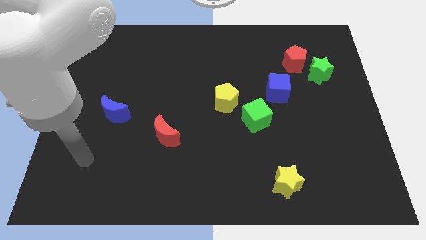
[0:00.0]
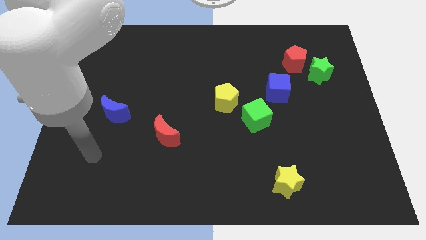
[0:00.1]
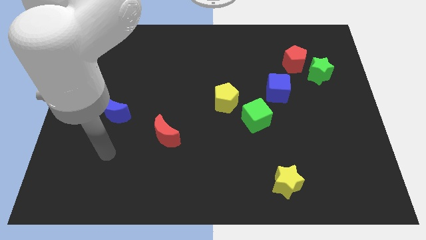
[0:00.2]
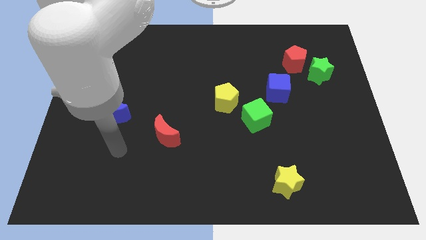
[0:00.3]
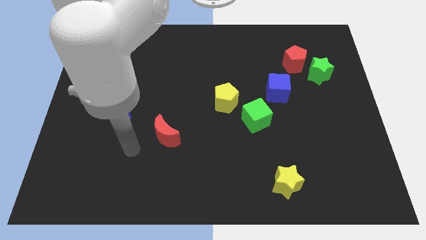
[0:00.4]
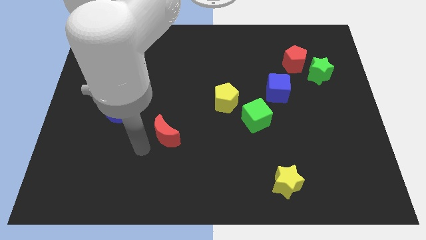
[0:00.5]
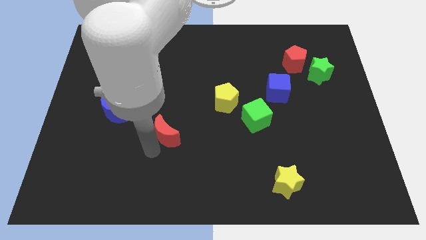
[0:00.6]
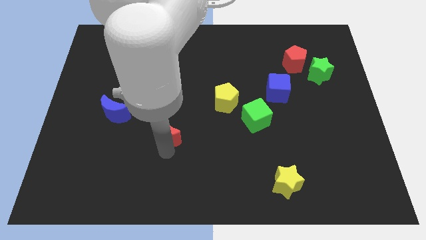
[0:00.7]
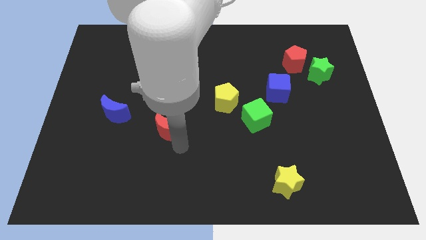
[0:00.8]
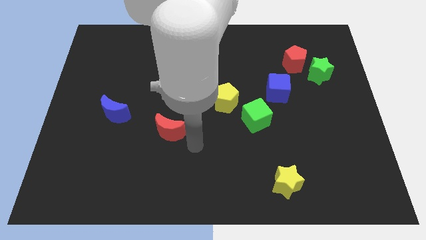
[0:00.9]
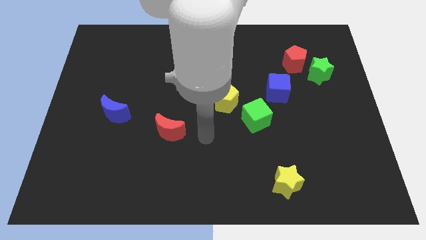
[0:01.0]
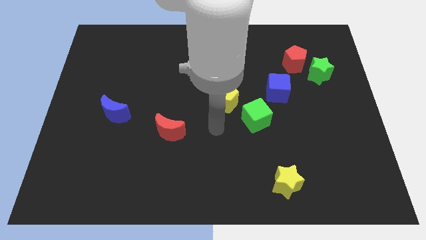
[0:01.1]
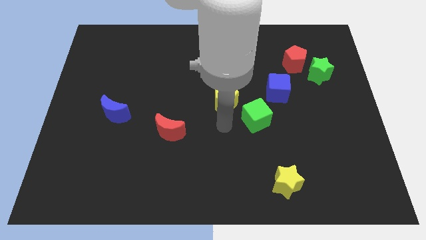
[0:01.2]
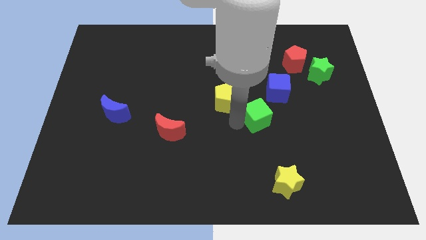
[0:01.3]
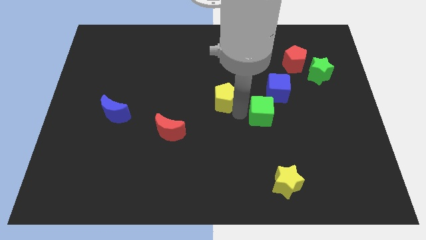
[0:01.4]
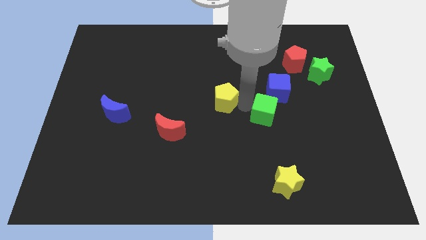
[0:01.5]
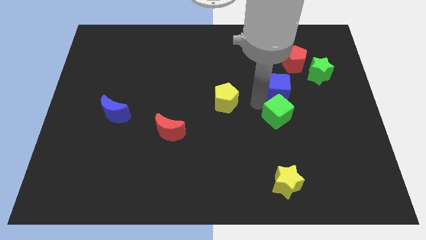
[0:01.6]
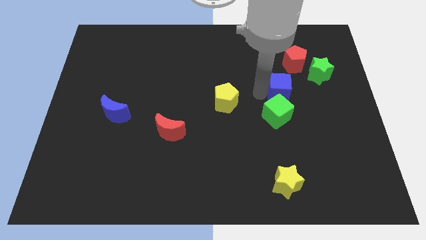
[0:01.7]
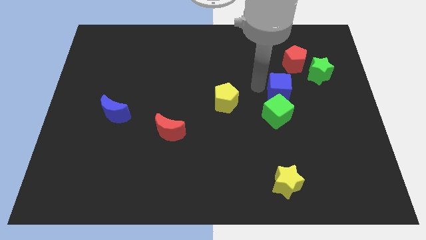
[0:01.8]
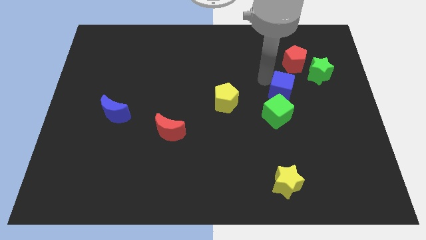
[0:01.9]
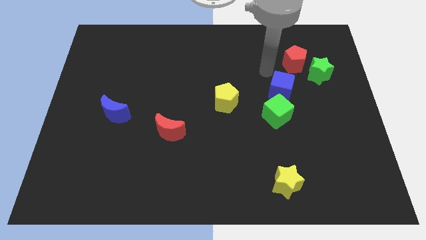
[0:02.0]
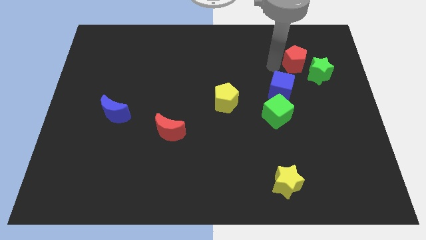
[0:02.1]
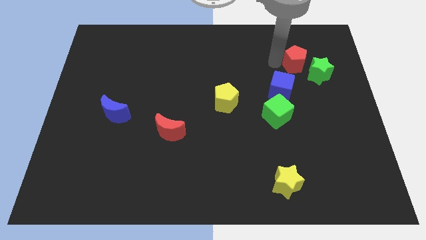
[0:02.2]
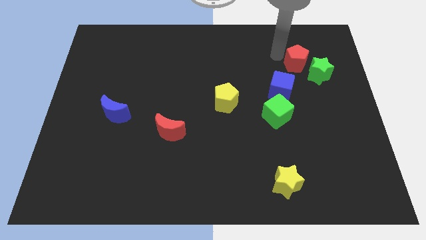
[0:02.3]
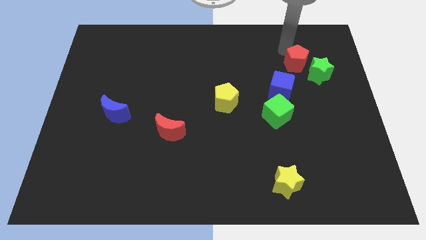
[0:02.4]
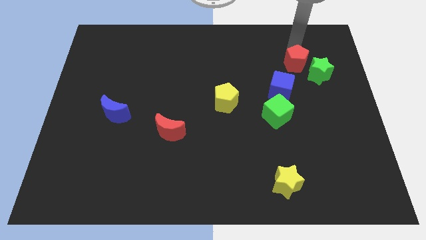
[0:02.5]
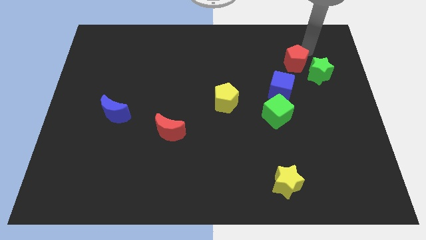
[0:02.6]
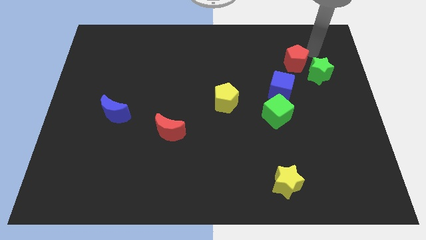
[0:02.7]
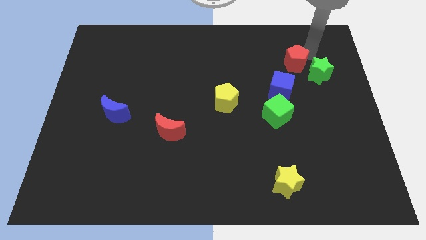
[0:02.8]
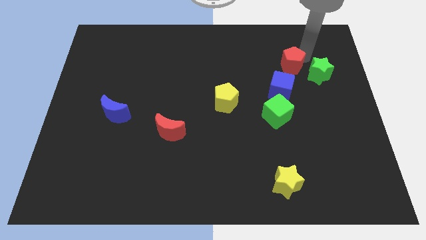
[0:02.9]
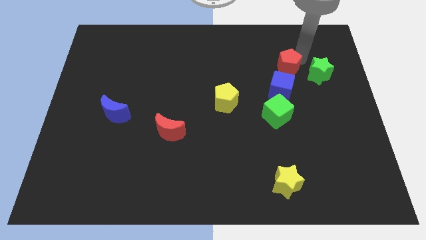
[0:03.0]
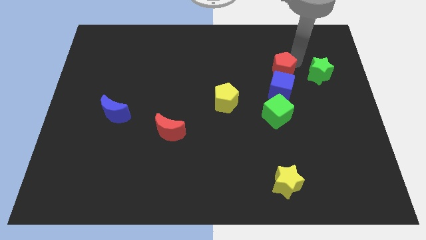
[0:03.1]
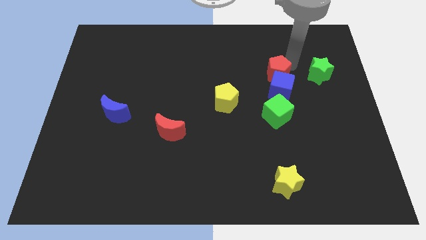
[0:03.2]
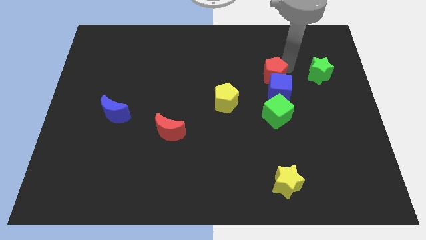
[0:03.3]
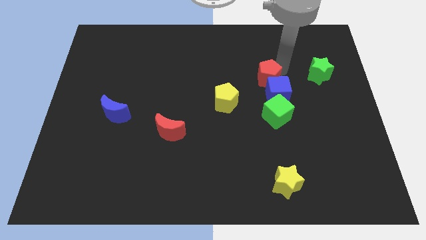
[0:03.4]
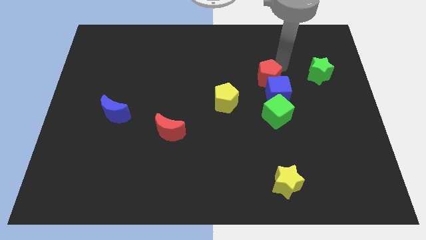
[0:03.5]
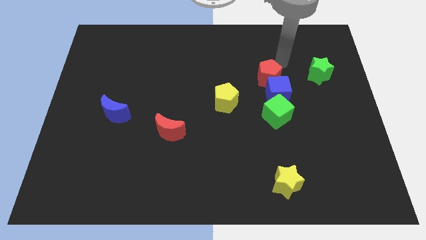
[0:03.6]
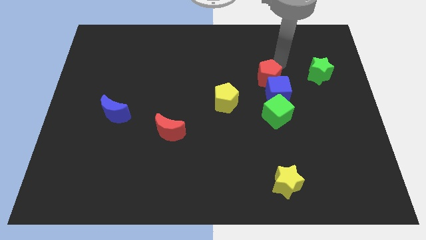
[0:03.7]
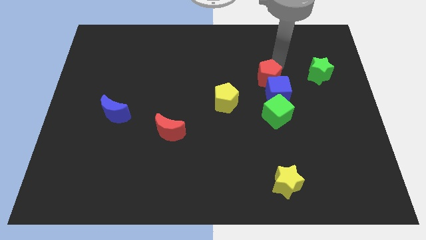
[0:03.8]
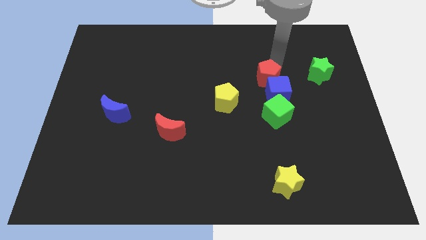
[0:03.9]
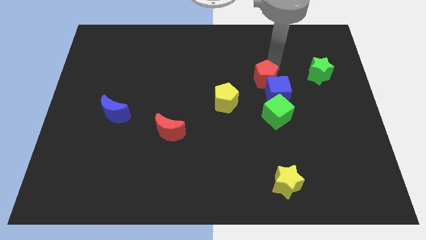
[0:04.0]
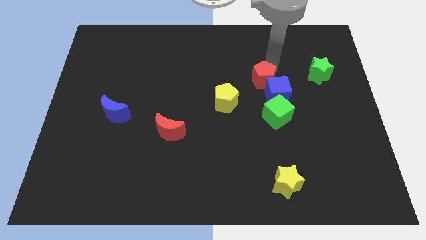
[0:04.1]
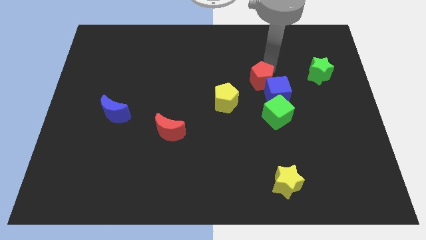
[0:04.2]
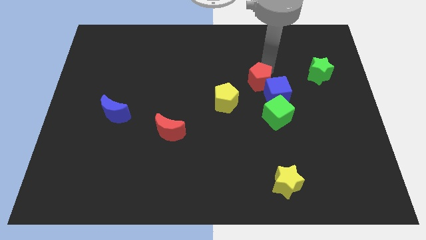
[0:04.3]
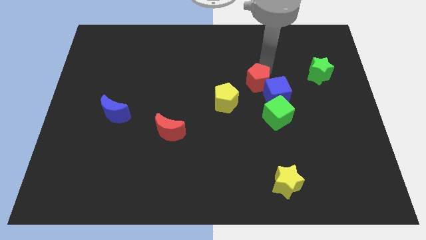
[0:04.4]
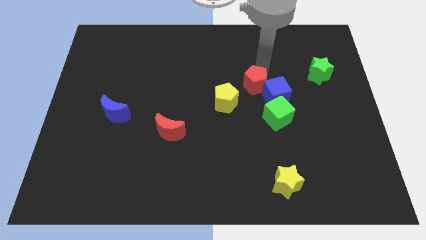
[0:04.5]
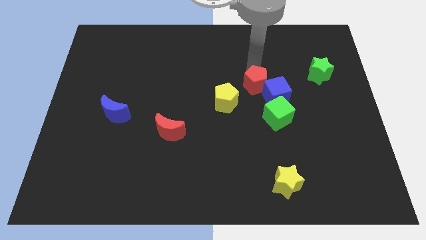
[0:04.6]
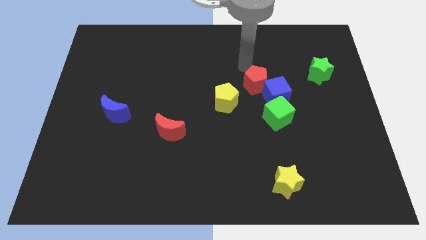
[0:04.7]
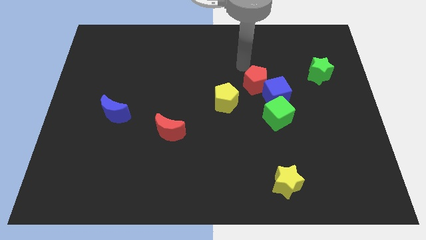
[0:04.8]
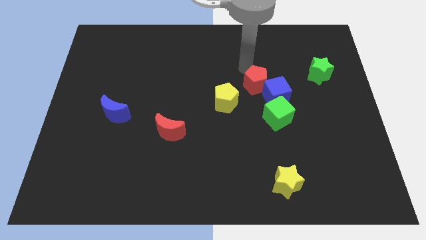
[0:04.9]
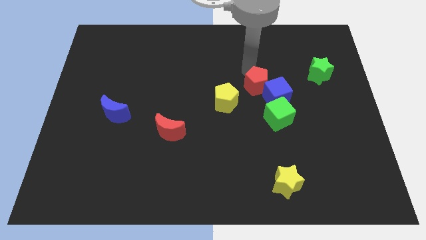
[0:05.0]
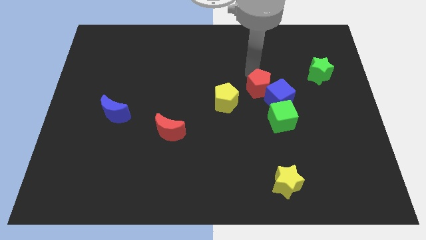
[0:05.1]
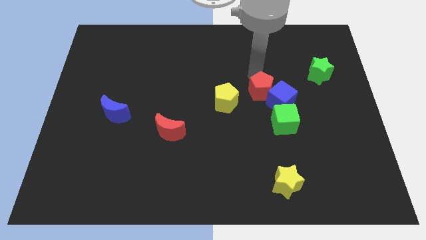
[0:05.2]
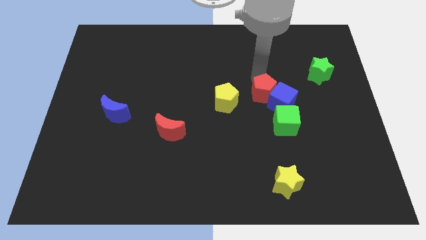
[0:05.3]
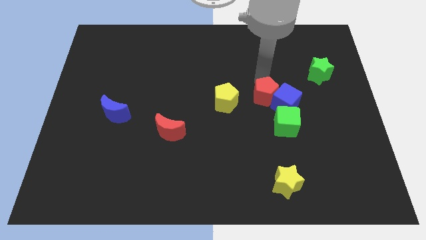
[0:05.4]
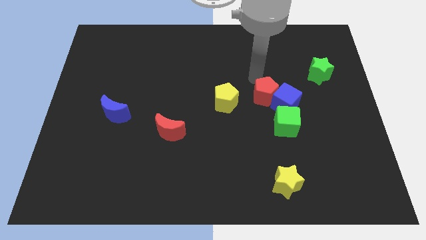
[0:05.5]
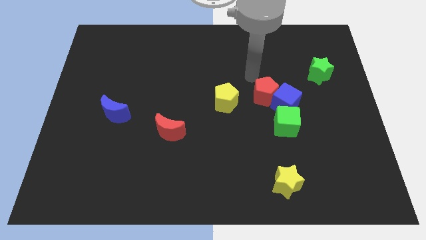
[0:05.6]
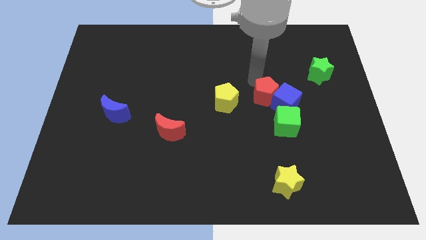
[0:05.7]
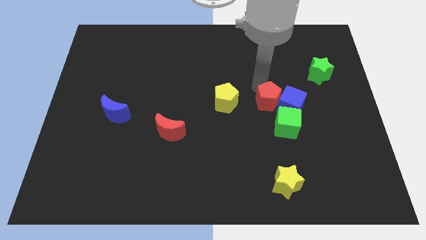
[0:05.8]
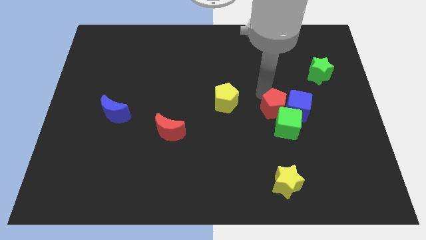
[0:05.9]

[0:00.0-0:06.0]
push the red pentagon next to the green cube

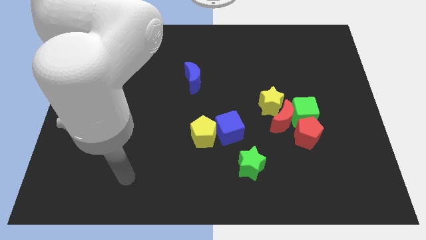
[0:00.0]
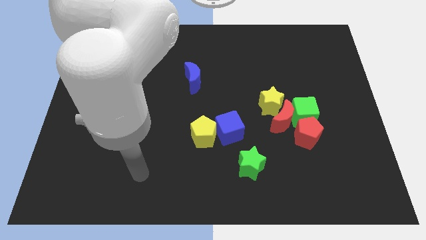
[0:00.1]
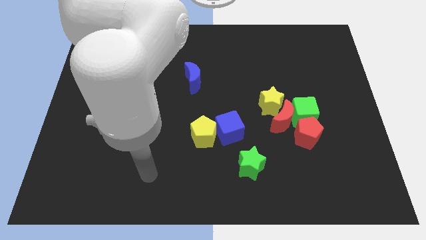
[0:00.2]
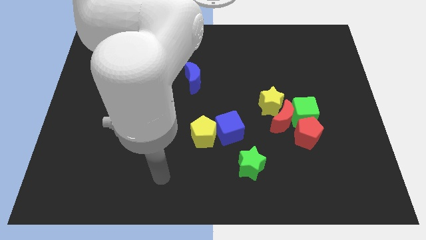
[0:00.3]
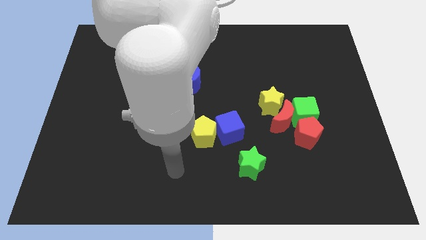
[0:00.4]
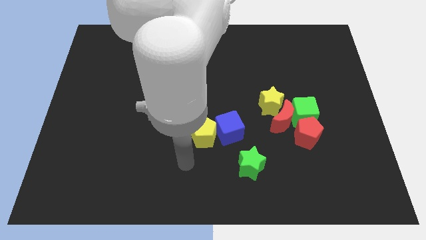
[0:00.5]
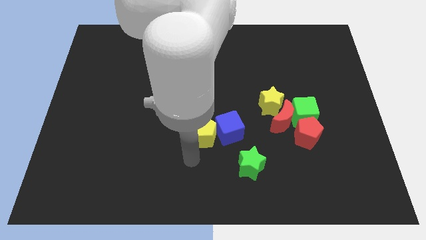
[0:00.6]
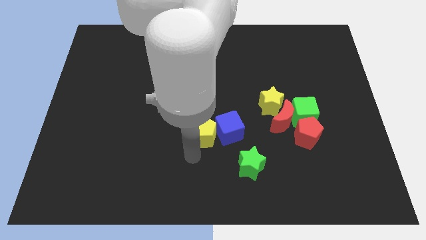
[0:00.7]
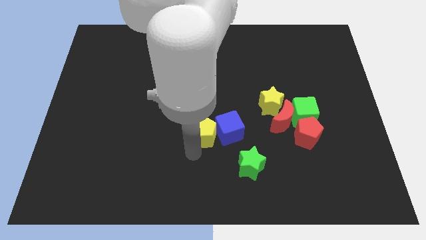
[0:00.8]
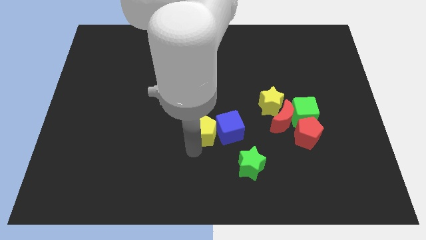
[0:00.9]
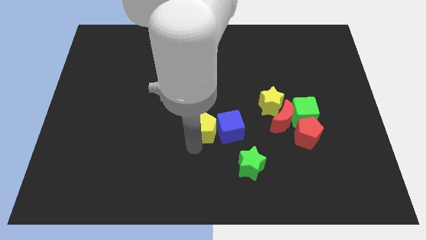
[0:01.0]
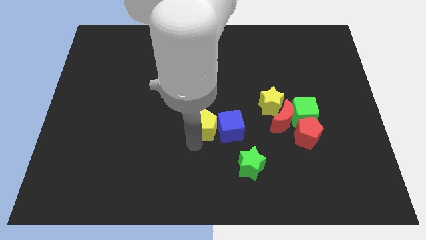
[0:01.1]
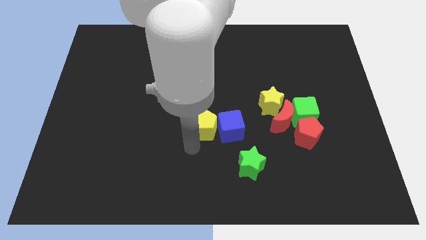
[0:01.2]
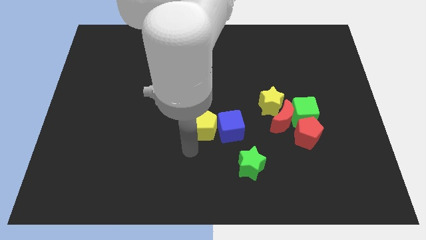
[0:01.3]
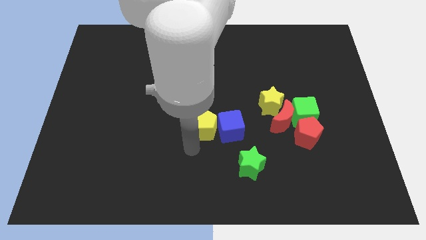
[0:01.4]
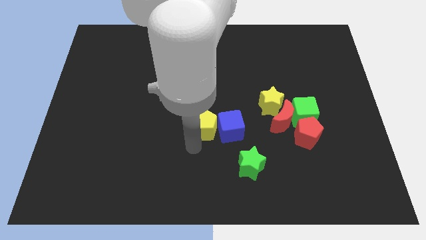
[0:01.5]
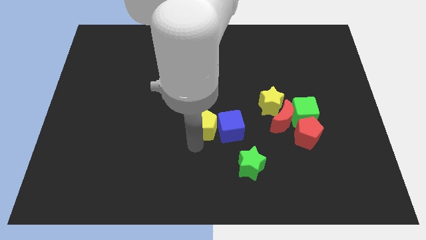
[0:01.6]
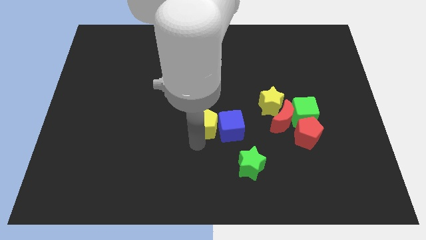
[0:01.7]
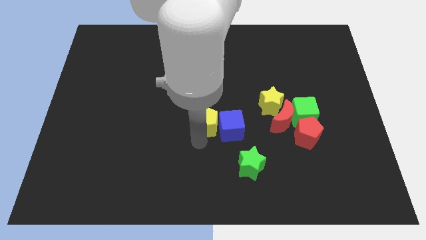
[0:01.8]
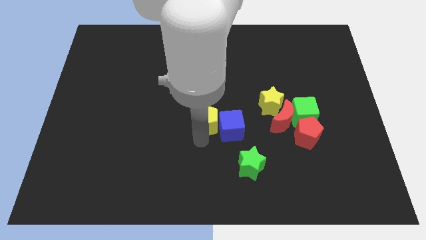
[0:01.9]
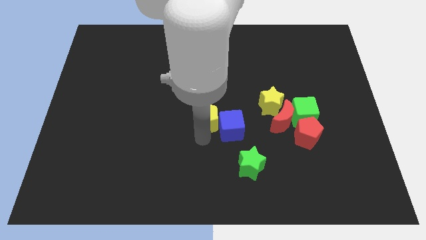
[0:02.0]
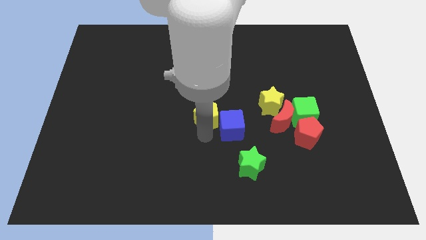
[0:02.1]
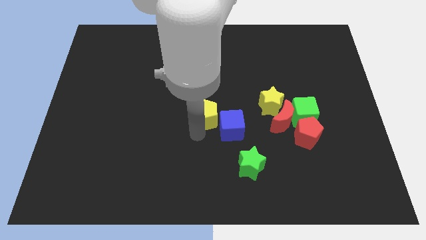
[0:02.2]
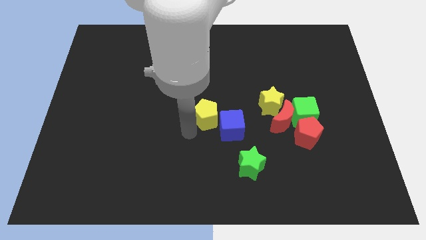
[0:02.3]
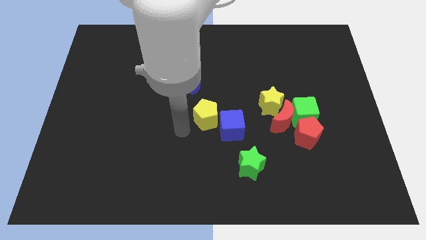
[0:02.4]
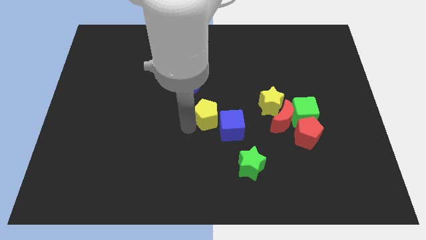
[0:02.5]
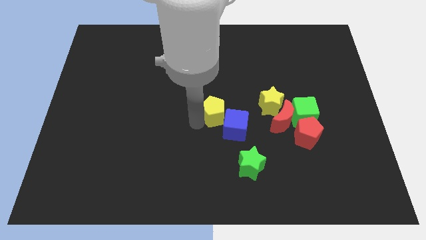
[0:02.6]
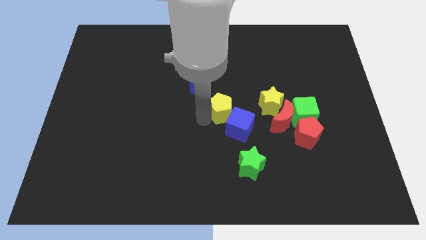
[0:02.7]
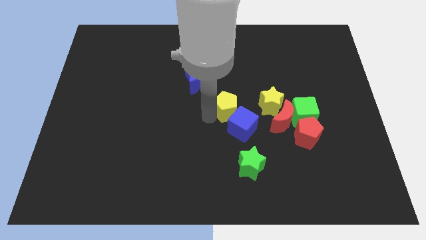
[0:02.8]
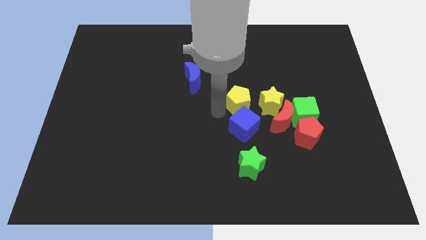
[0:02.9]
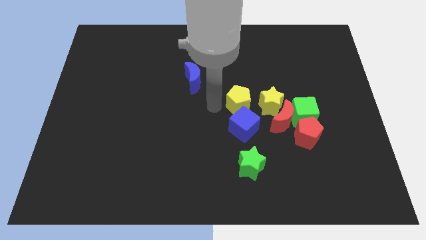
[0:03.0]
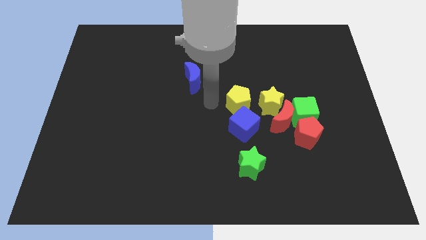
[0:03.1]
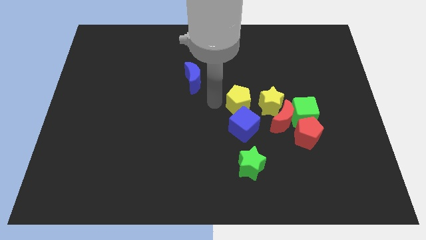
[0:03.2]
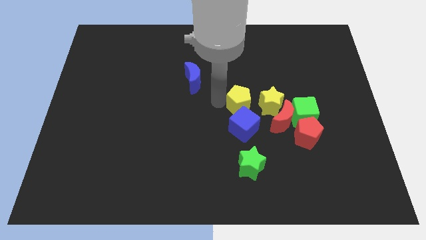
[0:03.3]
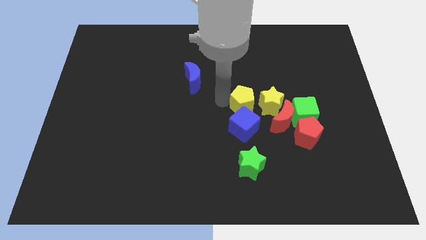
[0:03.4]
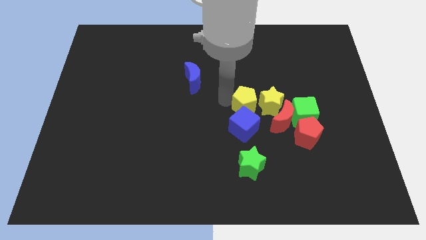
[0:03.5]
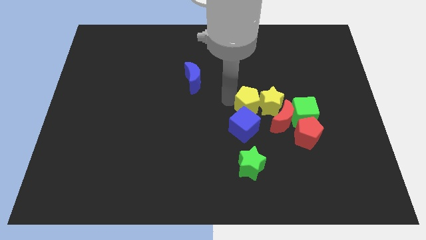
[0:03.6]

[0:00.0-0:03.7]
move the yellow pentagon to the yellow star
